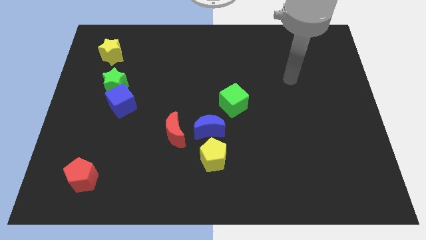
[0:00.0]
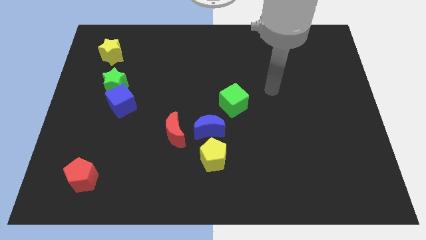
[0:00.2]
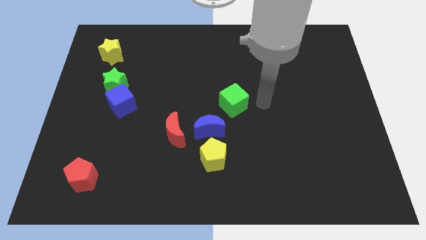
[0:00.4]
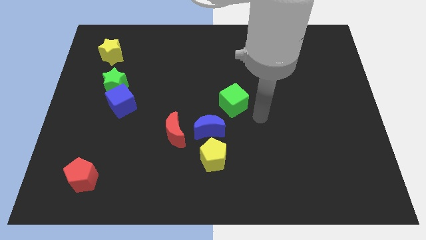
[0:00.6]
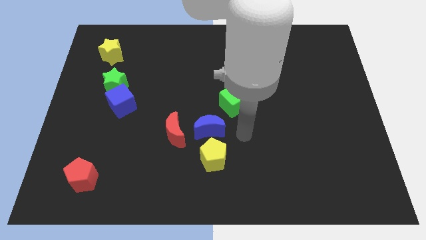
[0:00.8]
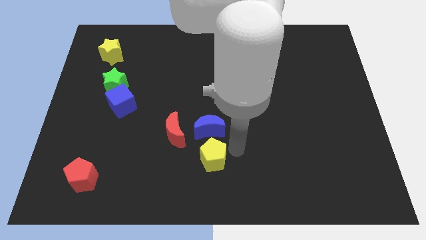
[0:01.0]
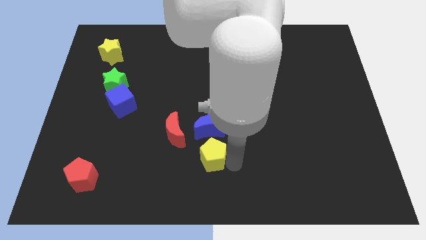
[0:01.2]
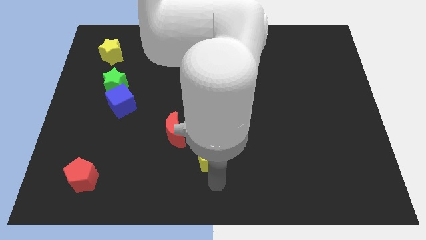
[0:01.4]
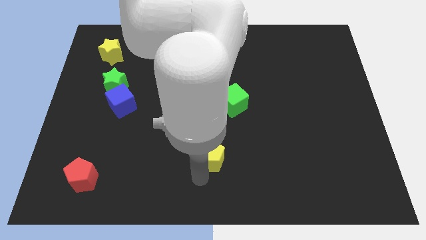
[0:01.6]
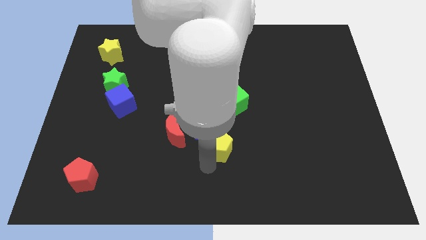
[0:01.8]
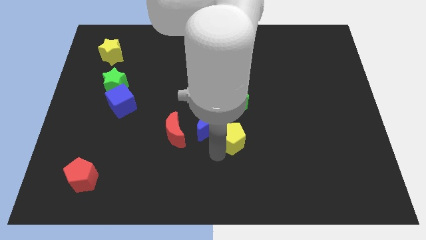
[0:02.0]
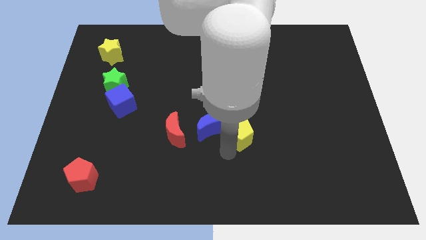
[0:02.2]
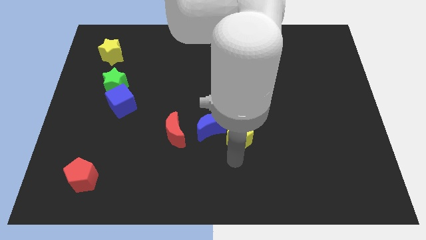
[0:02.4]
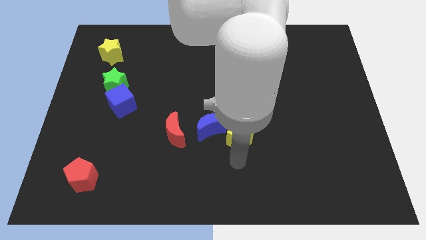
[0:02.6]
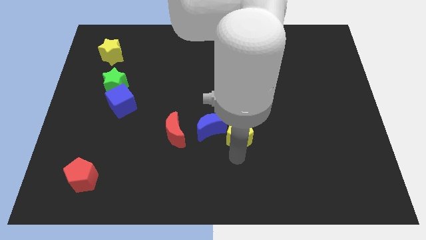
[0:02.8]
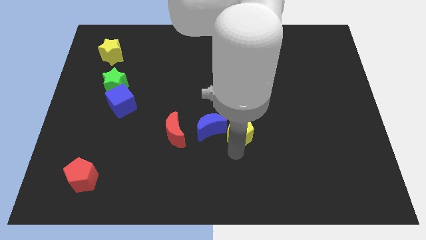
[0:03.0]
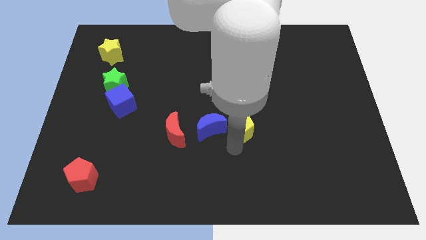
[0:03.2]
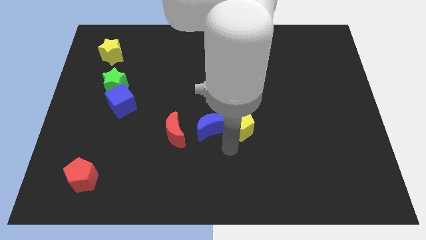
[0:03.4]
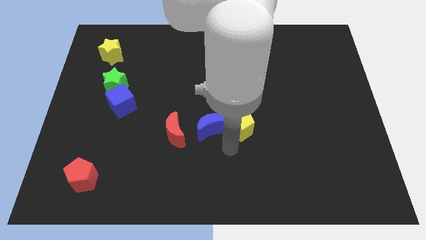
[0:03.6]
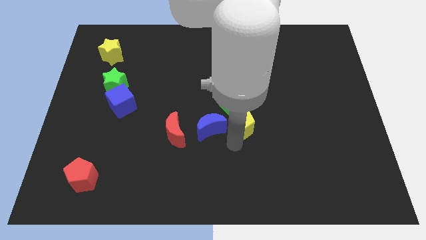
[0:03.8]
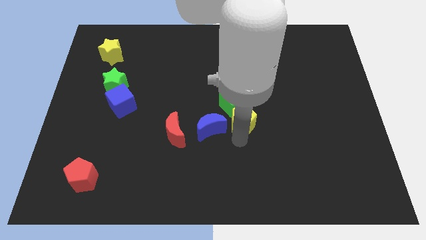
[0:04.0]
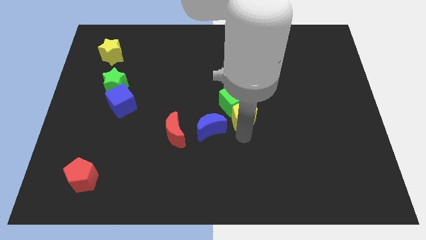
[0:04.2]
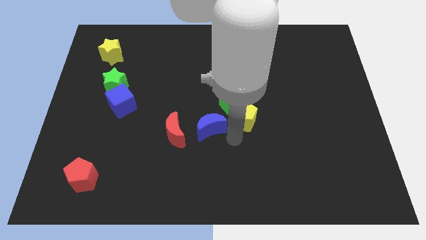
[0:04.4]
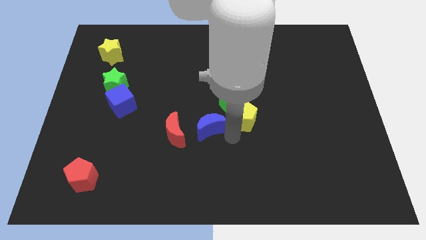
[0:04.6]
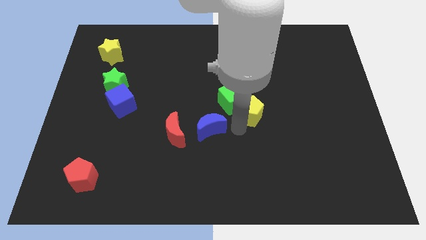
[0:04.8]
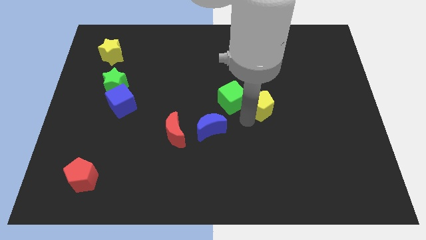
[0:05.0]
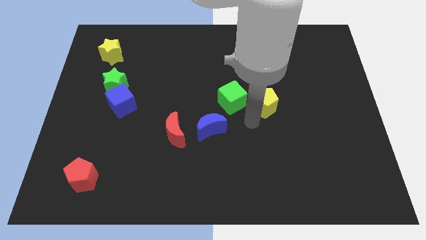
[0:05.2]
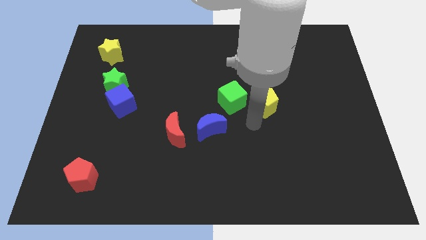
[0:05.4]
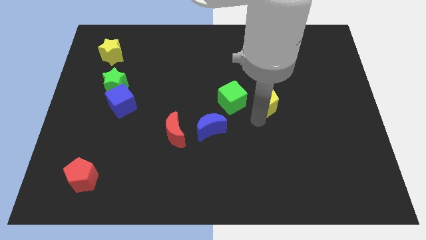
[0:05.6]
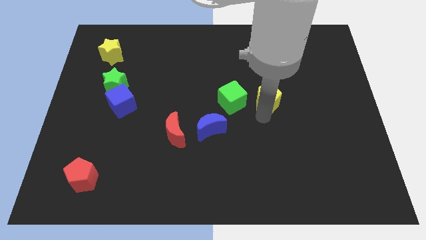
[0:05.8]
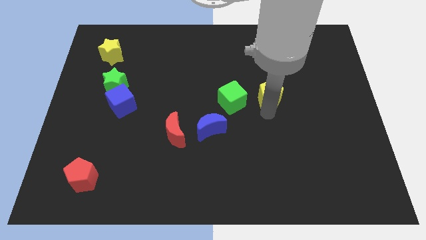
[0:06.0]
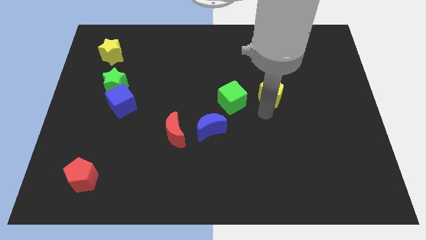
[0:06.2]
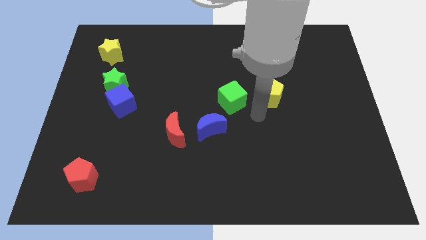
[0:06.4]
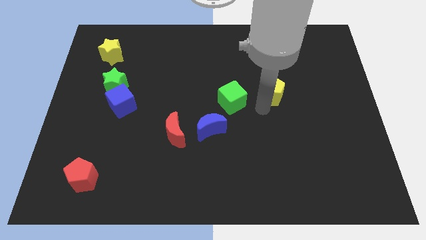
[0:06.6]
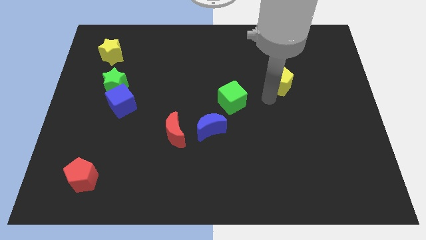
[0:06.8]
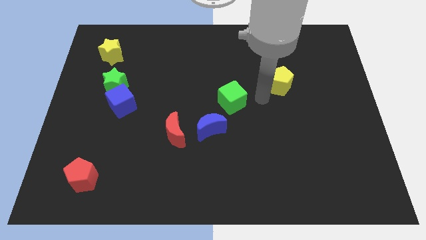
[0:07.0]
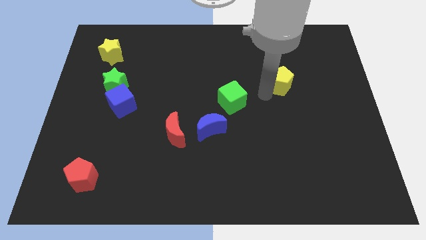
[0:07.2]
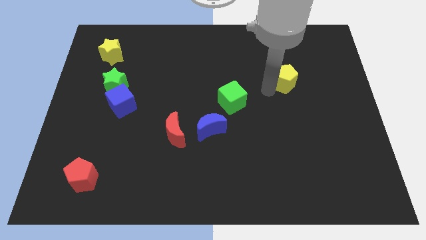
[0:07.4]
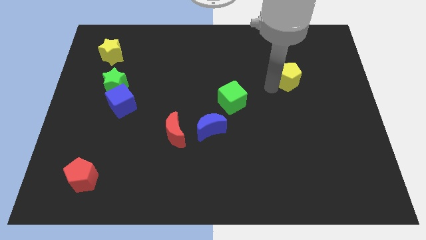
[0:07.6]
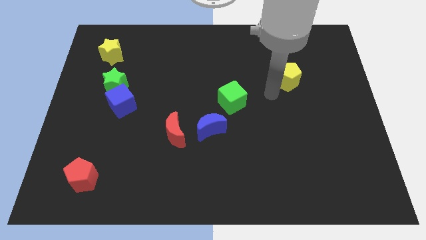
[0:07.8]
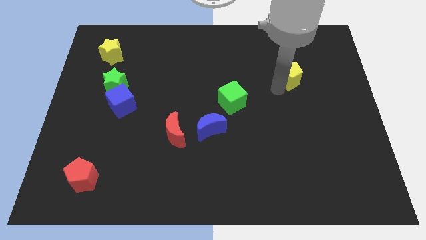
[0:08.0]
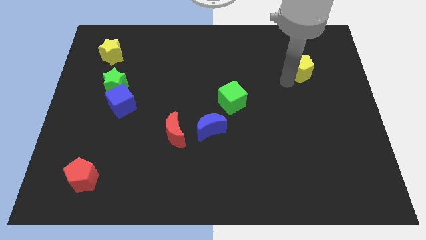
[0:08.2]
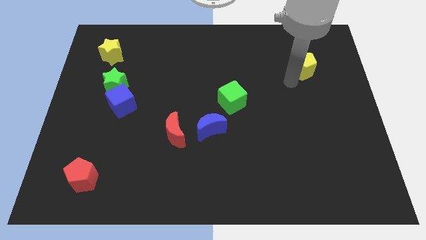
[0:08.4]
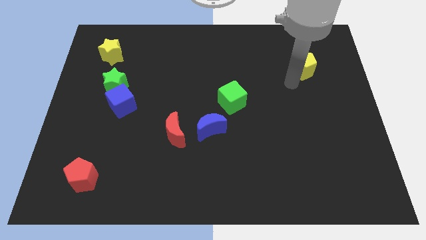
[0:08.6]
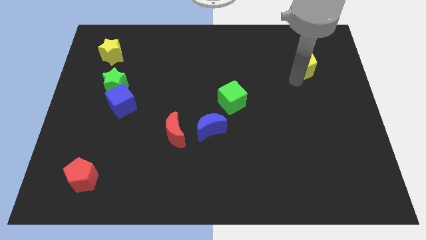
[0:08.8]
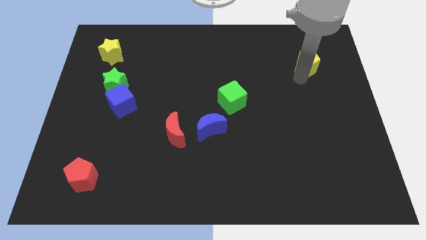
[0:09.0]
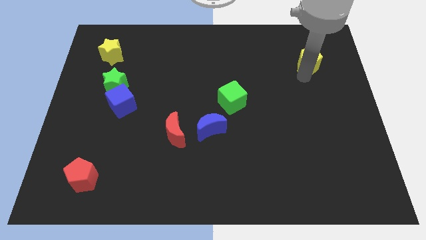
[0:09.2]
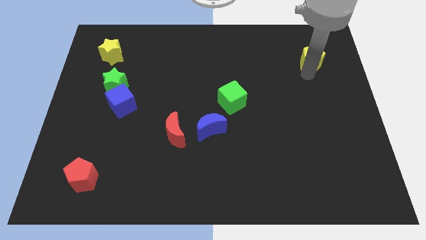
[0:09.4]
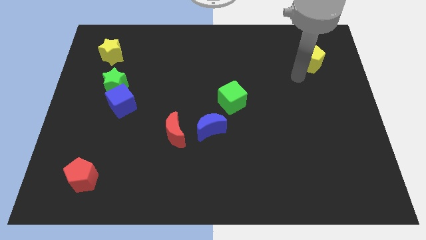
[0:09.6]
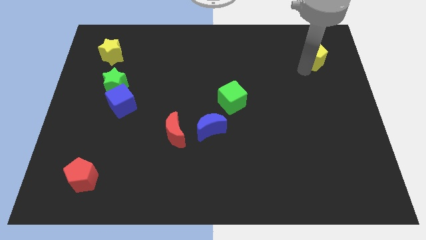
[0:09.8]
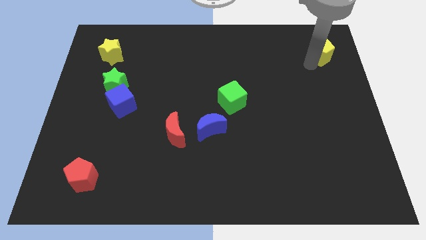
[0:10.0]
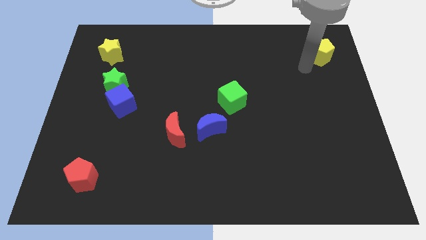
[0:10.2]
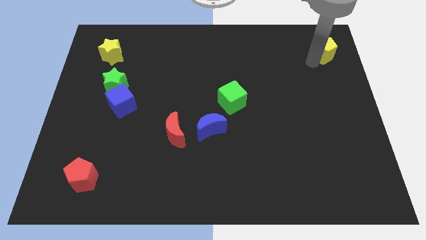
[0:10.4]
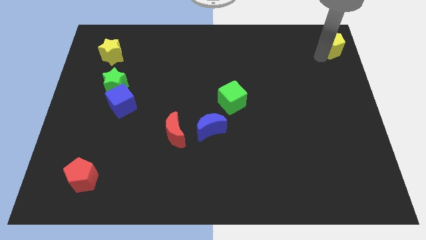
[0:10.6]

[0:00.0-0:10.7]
move the yellow pentagon to the top right of the board
